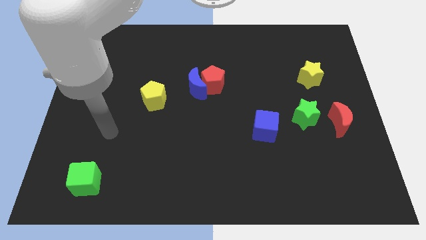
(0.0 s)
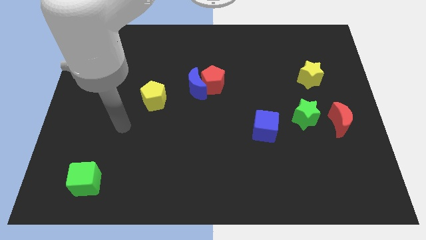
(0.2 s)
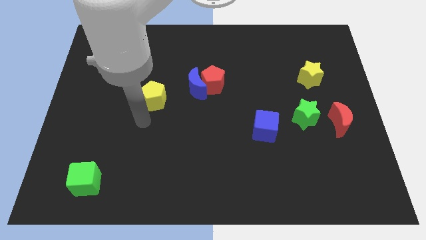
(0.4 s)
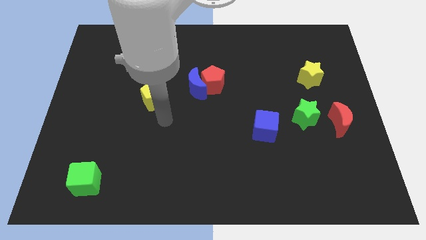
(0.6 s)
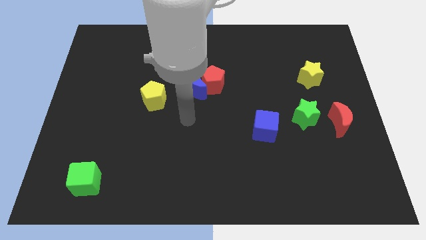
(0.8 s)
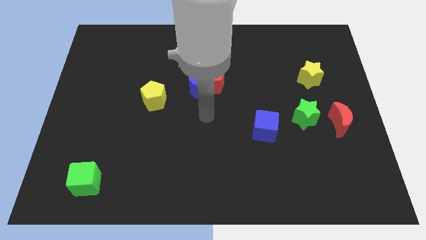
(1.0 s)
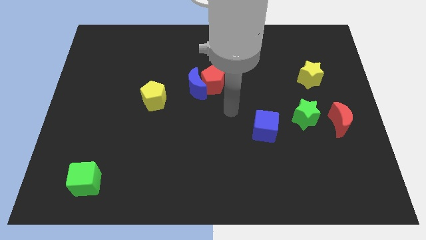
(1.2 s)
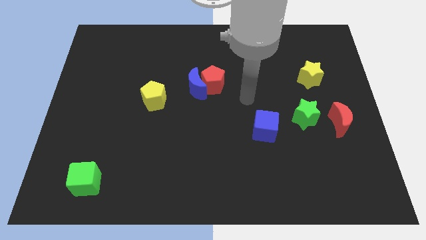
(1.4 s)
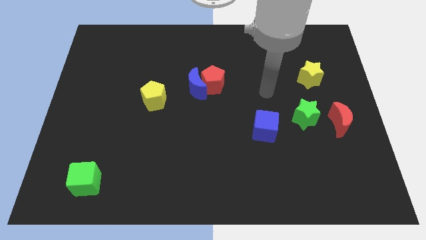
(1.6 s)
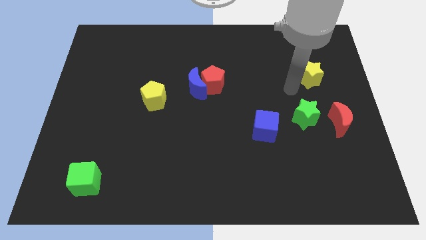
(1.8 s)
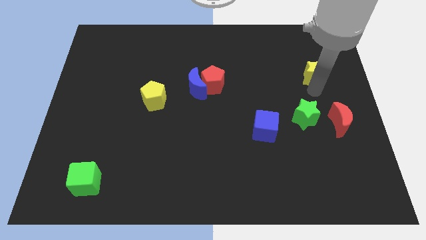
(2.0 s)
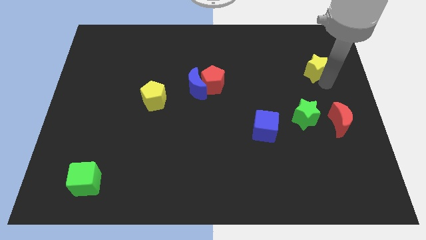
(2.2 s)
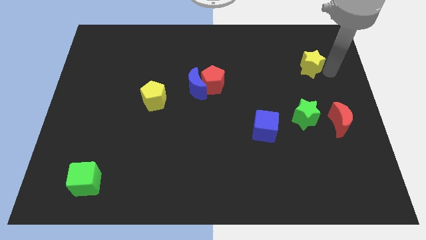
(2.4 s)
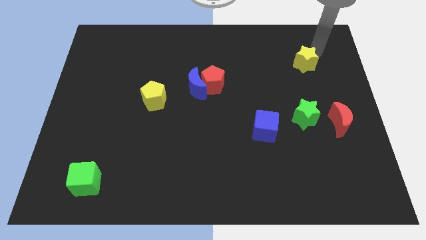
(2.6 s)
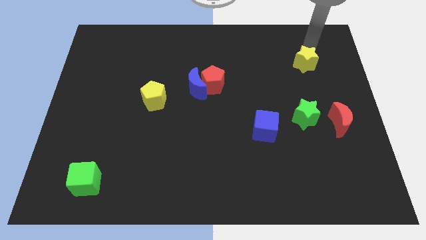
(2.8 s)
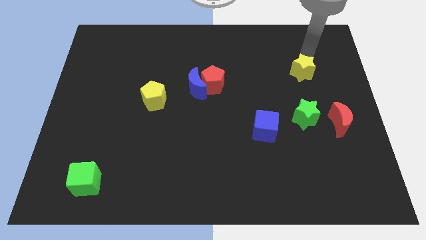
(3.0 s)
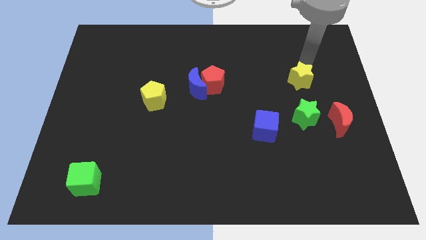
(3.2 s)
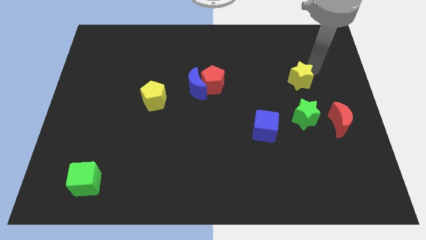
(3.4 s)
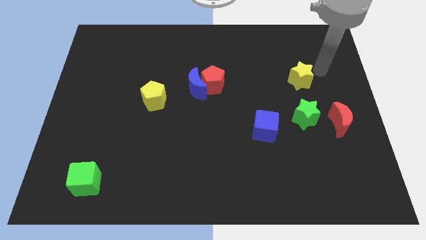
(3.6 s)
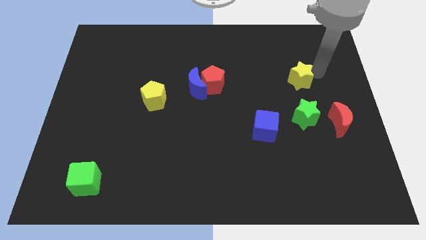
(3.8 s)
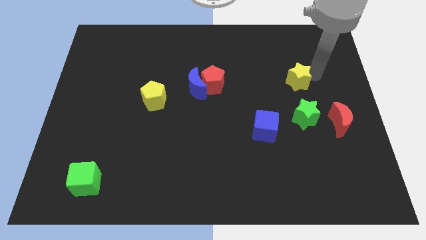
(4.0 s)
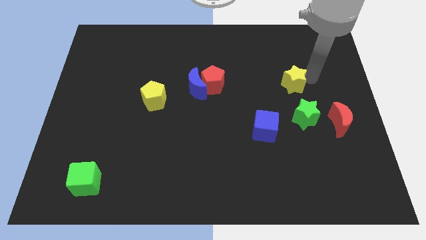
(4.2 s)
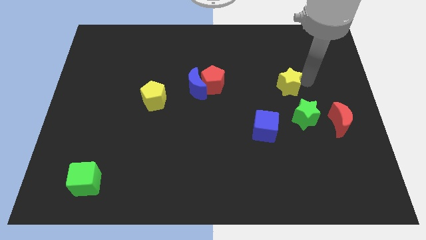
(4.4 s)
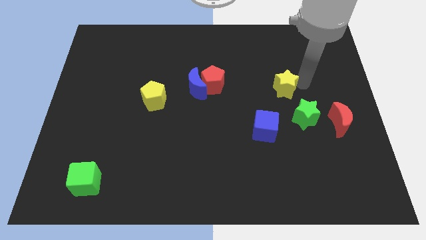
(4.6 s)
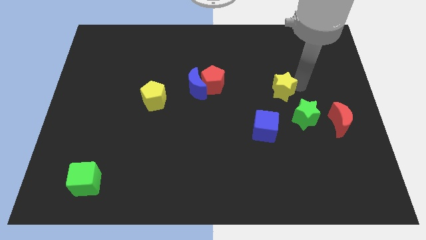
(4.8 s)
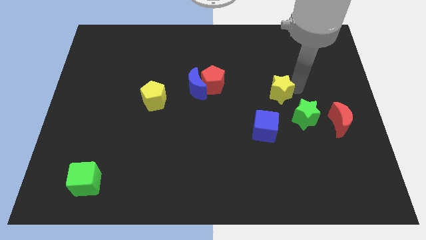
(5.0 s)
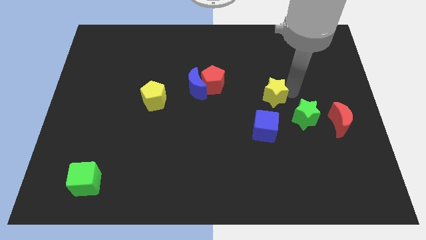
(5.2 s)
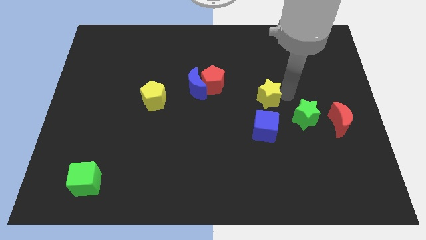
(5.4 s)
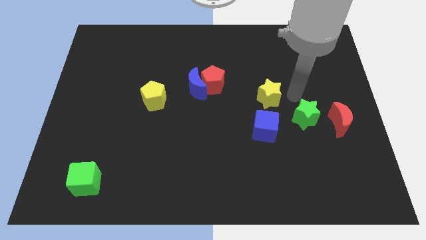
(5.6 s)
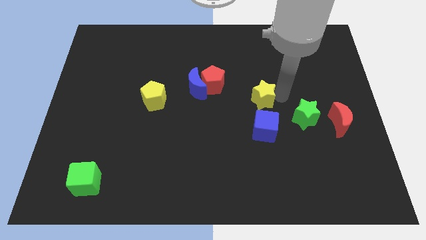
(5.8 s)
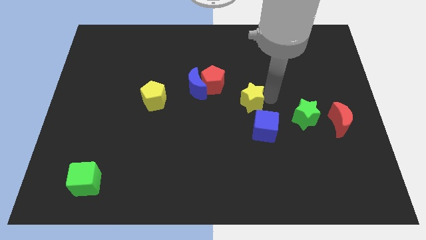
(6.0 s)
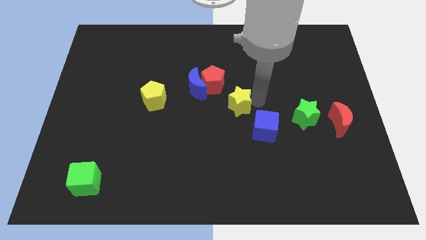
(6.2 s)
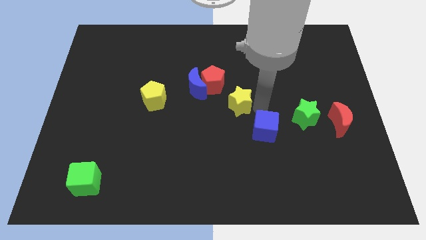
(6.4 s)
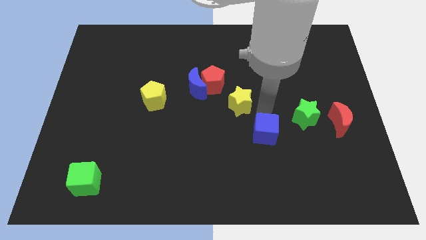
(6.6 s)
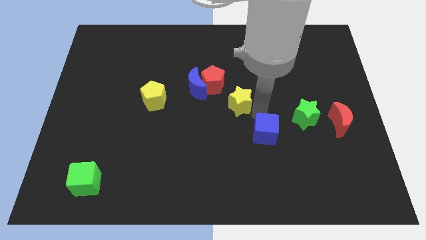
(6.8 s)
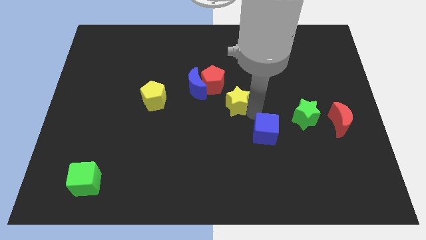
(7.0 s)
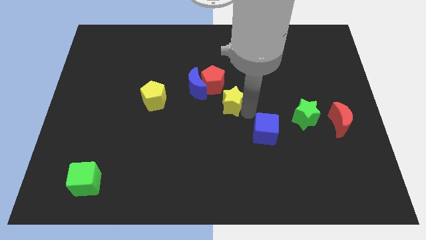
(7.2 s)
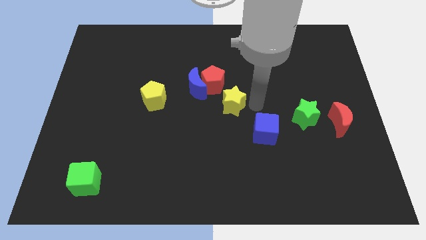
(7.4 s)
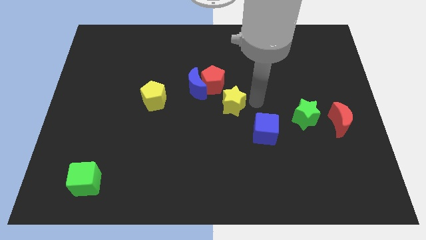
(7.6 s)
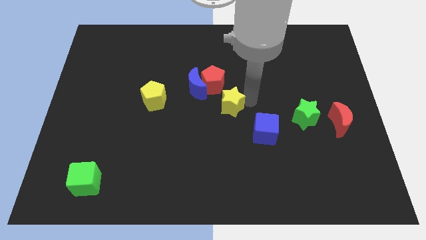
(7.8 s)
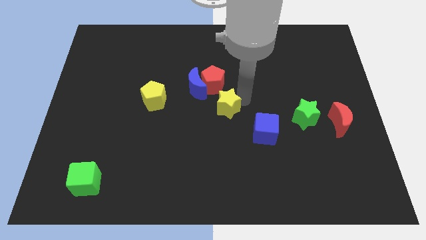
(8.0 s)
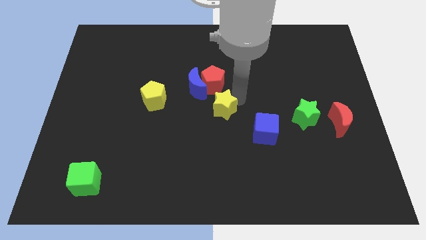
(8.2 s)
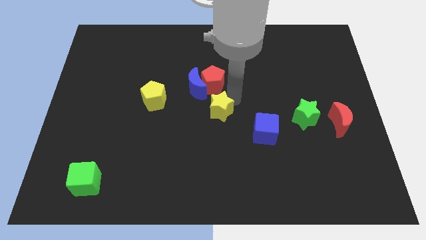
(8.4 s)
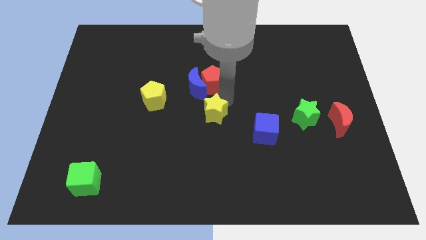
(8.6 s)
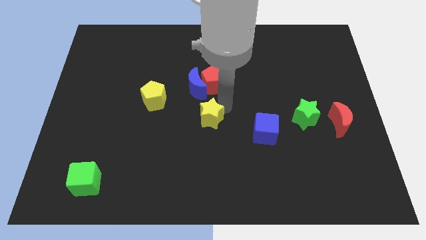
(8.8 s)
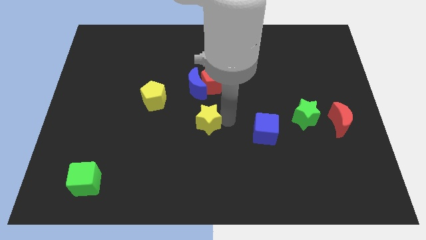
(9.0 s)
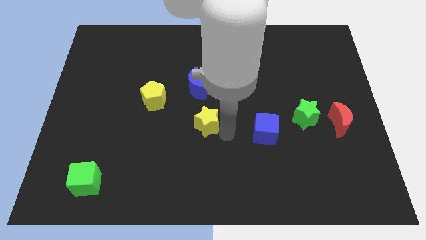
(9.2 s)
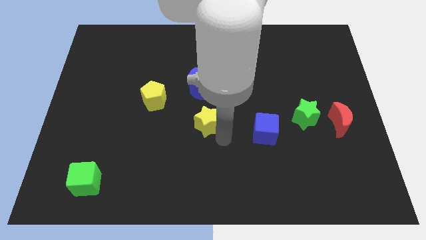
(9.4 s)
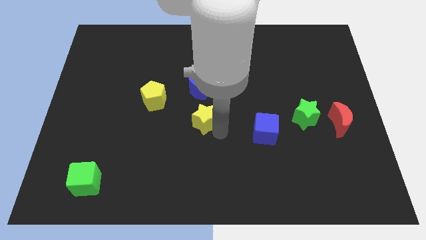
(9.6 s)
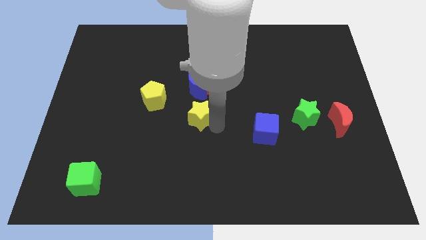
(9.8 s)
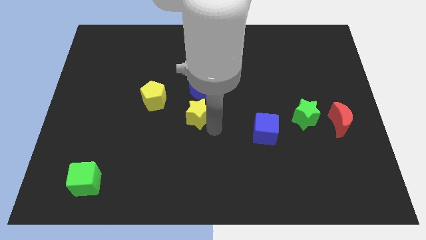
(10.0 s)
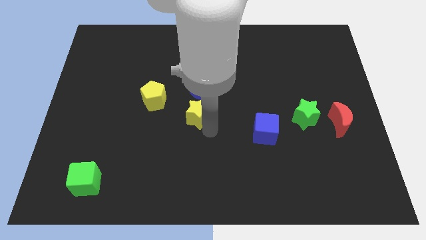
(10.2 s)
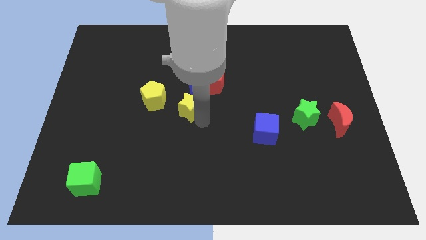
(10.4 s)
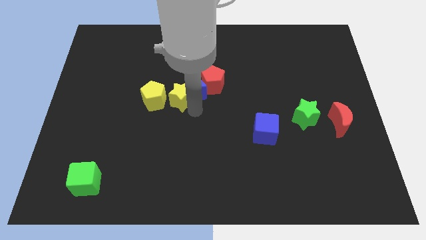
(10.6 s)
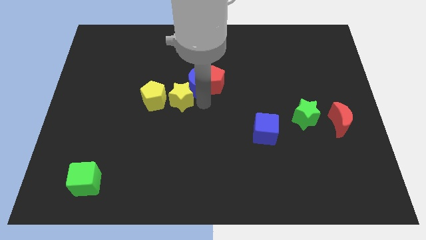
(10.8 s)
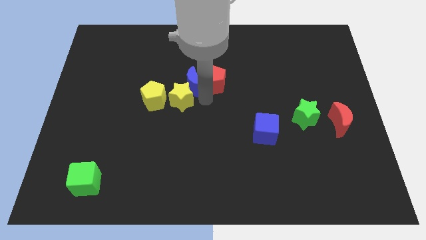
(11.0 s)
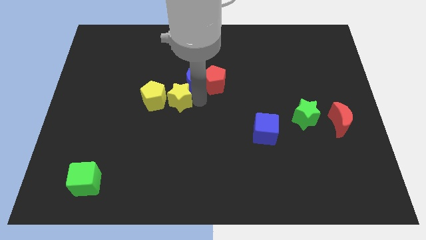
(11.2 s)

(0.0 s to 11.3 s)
move the yellow star to the yellow pentagon

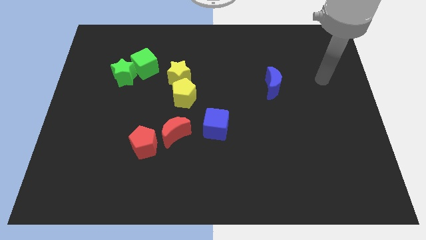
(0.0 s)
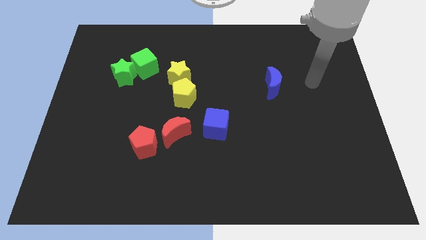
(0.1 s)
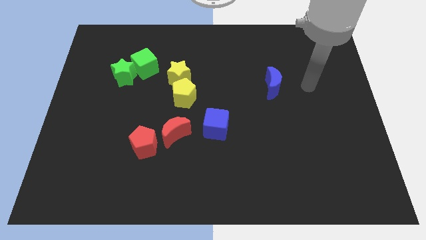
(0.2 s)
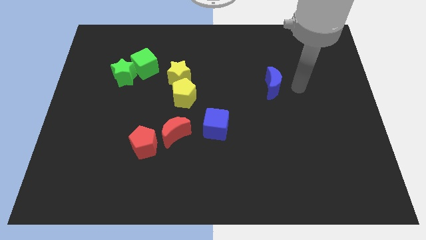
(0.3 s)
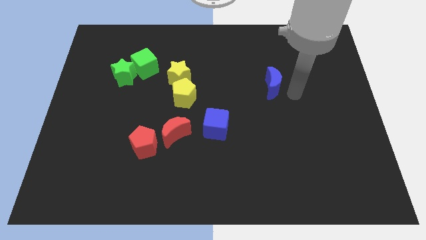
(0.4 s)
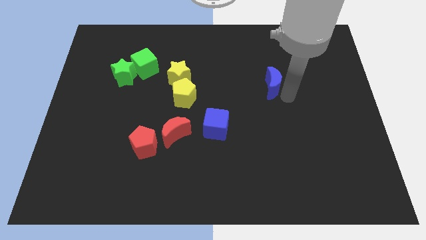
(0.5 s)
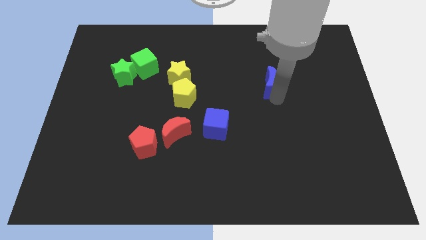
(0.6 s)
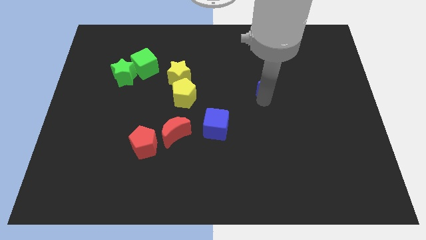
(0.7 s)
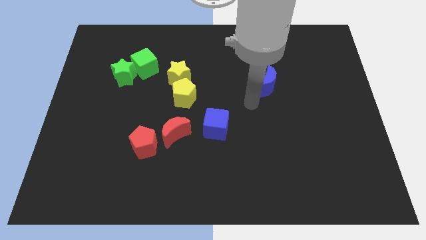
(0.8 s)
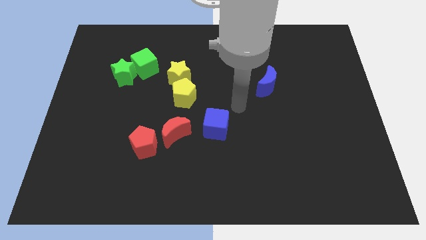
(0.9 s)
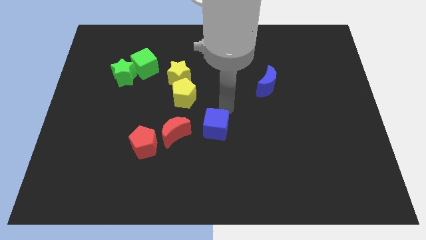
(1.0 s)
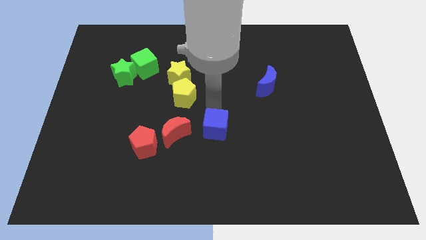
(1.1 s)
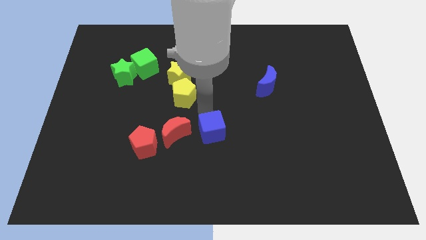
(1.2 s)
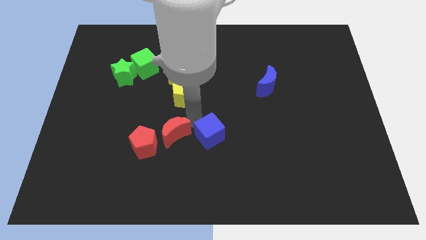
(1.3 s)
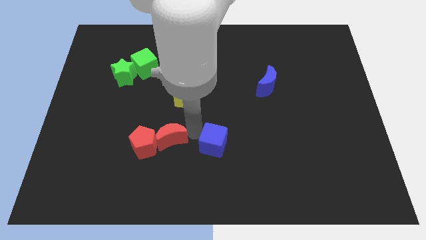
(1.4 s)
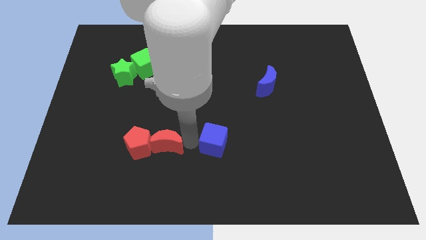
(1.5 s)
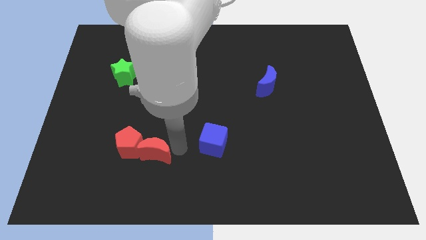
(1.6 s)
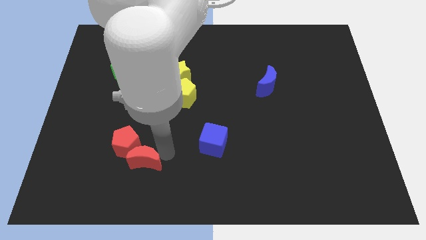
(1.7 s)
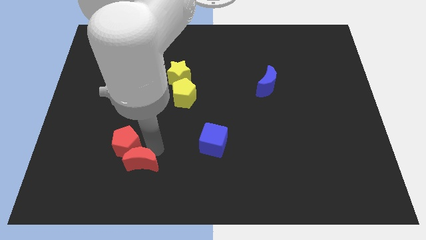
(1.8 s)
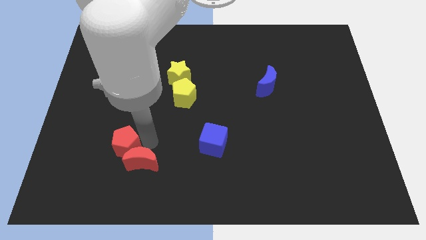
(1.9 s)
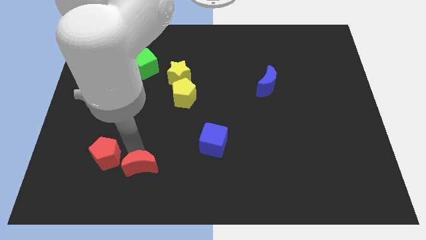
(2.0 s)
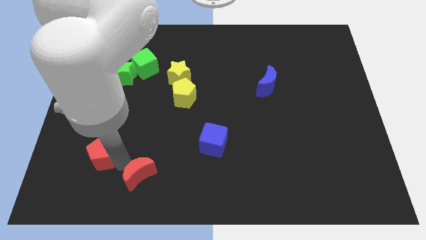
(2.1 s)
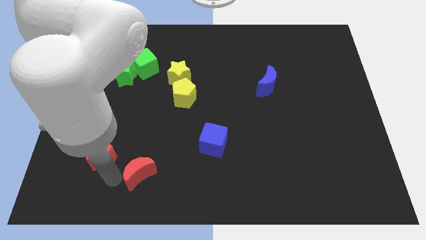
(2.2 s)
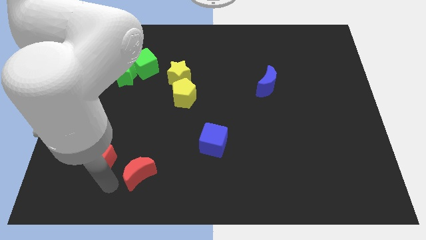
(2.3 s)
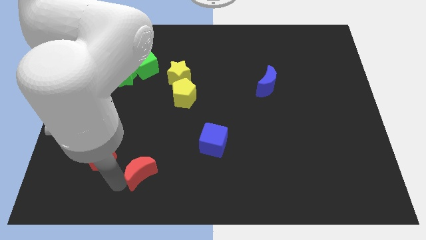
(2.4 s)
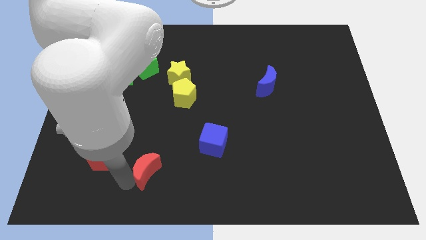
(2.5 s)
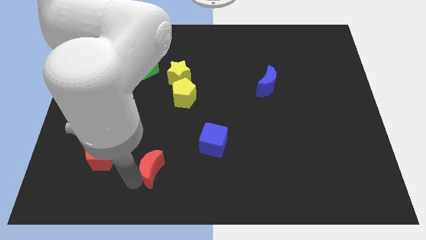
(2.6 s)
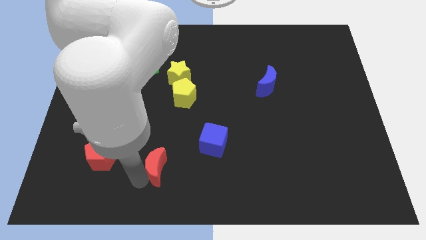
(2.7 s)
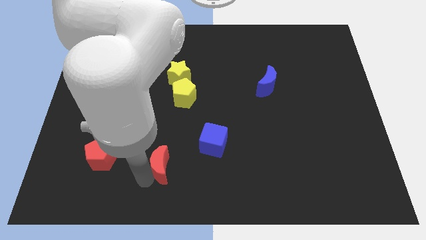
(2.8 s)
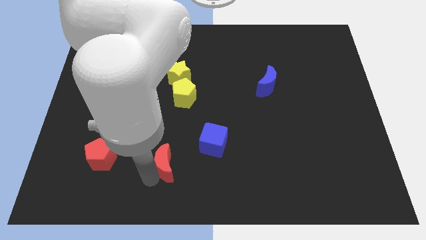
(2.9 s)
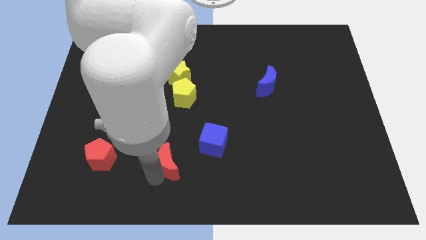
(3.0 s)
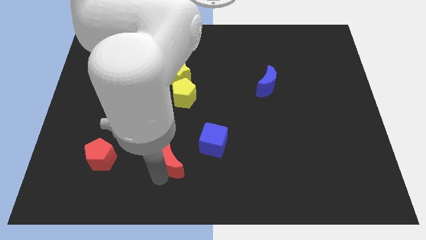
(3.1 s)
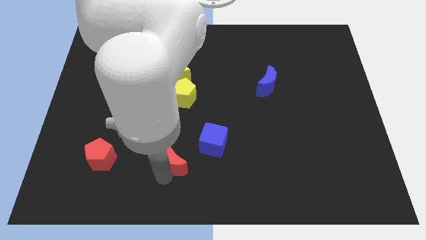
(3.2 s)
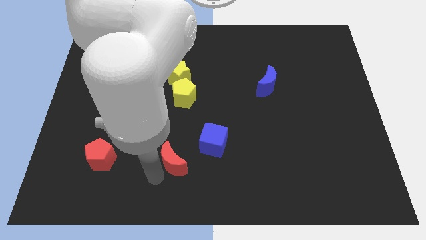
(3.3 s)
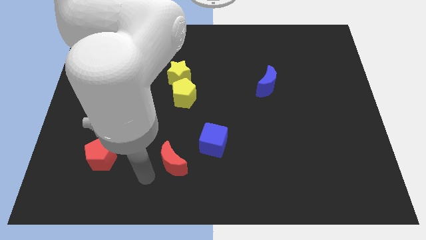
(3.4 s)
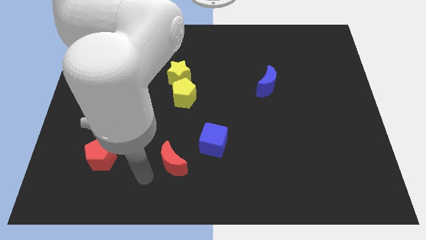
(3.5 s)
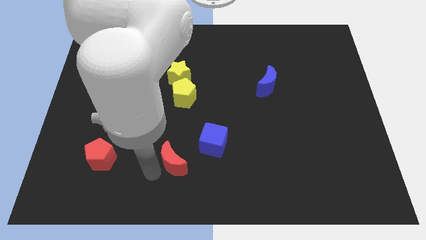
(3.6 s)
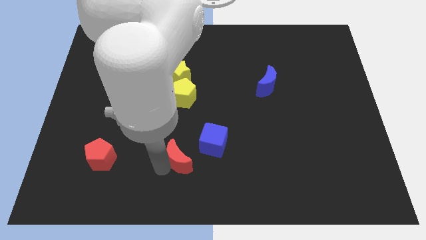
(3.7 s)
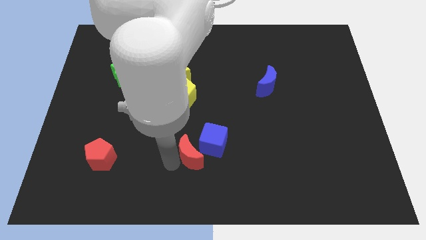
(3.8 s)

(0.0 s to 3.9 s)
move the red moon close to the blue cube
